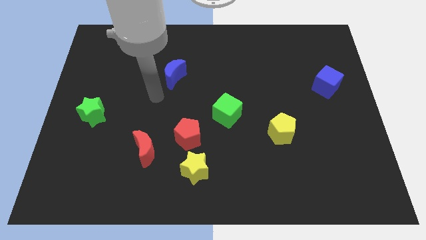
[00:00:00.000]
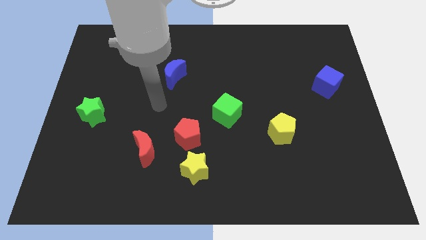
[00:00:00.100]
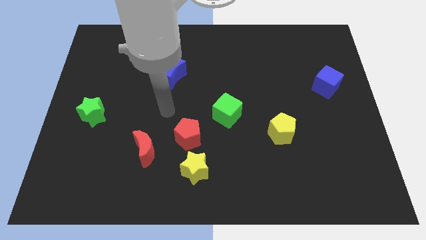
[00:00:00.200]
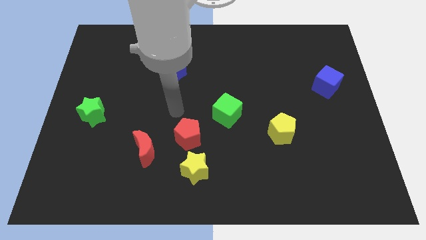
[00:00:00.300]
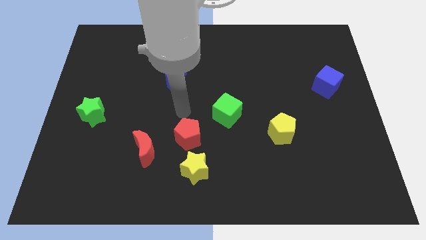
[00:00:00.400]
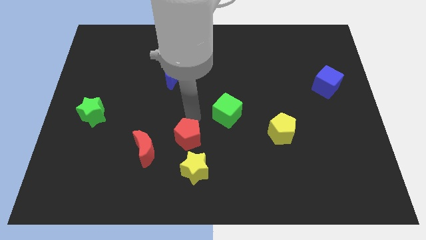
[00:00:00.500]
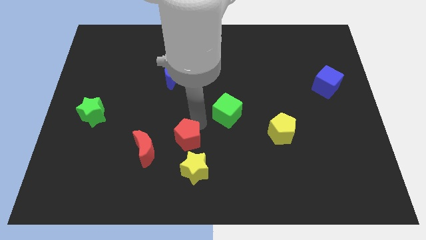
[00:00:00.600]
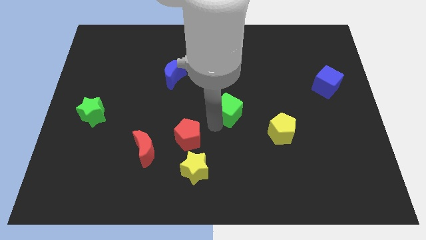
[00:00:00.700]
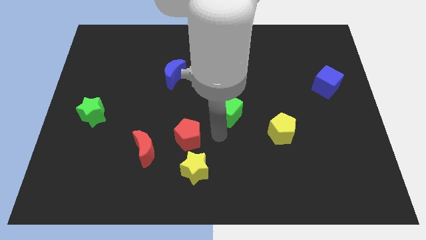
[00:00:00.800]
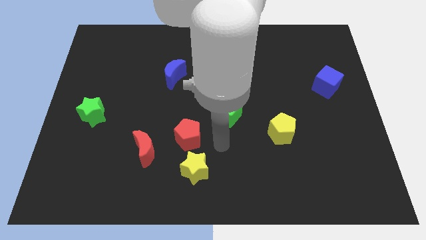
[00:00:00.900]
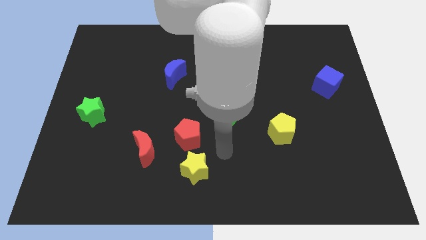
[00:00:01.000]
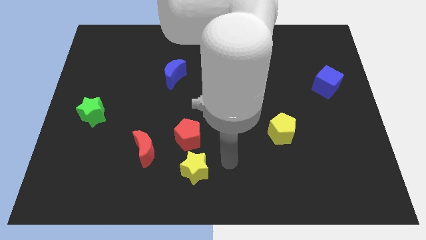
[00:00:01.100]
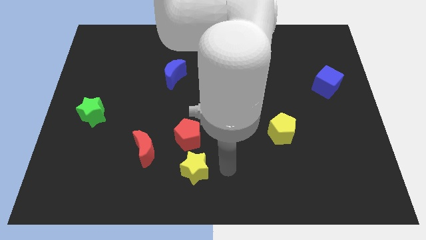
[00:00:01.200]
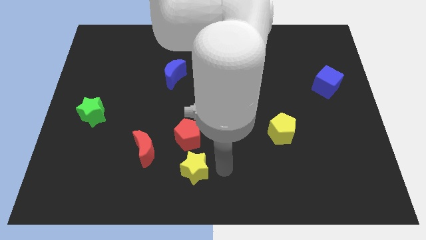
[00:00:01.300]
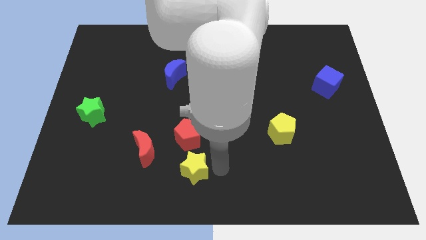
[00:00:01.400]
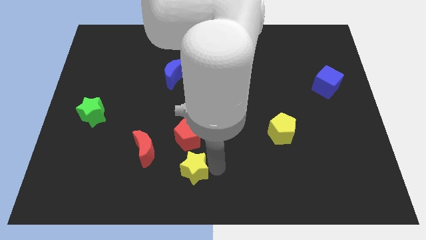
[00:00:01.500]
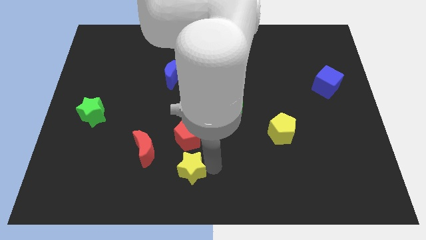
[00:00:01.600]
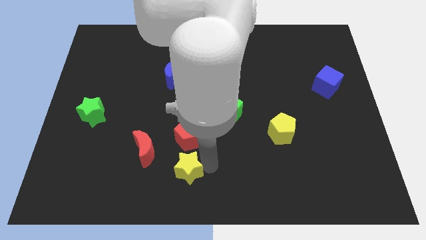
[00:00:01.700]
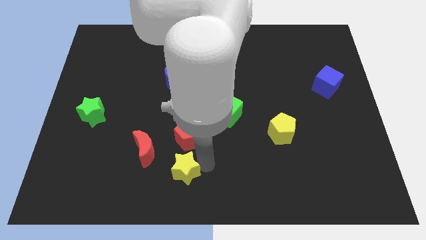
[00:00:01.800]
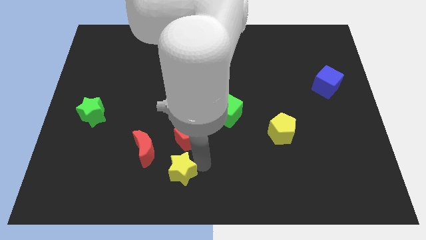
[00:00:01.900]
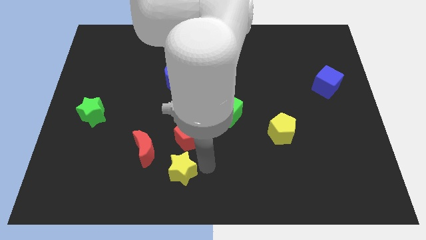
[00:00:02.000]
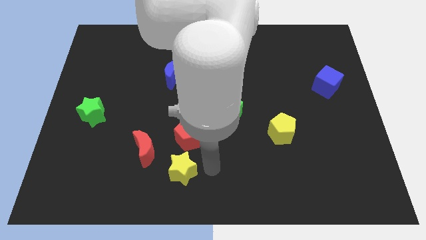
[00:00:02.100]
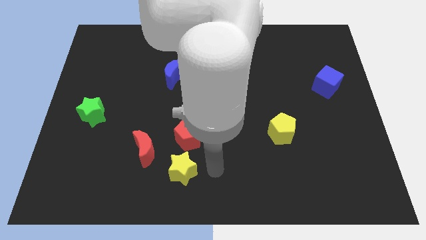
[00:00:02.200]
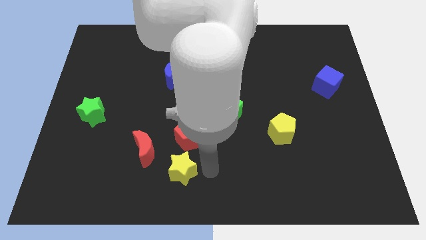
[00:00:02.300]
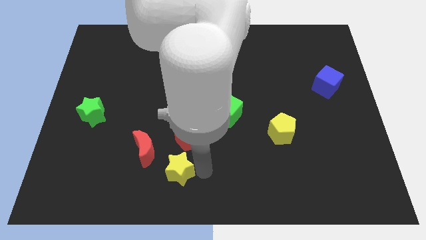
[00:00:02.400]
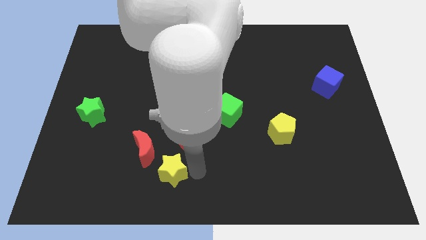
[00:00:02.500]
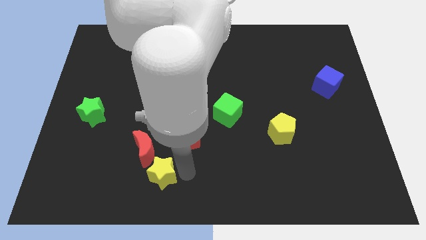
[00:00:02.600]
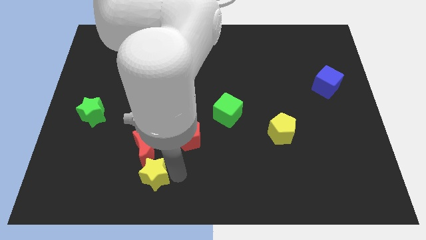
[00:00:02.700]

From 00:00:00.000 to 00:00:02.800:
push the yellow star to the left a little bit

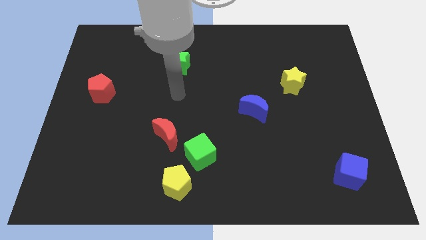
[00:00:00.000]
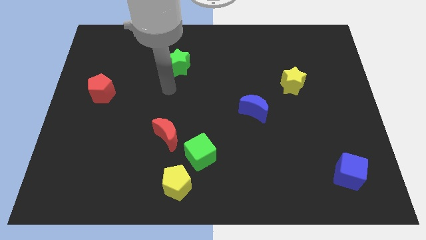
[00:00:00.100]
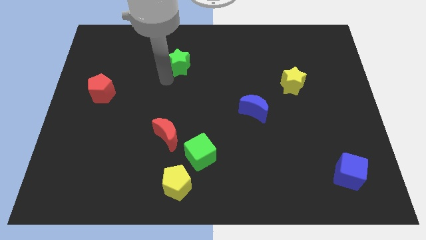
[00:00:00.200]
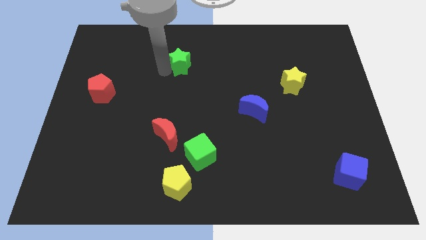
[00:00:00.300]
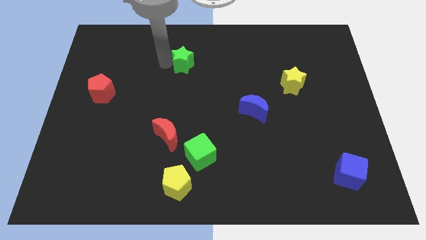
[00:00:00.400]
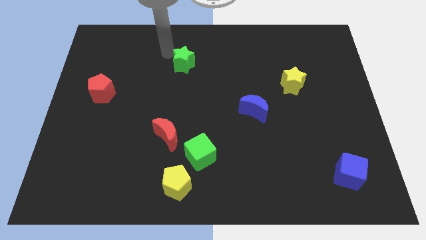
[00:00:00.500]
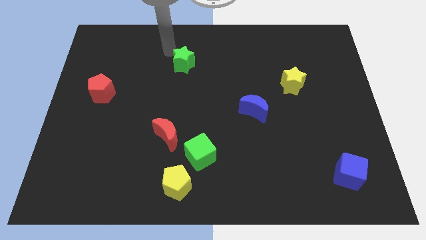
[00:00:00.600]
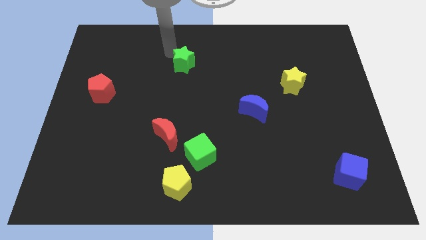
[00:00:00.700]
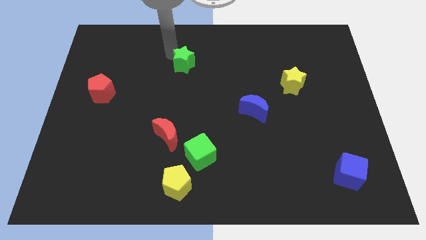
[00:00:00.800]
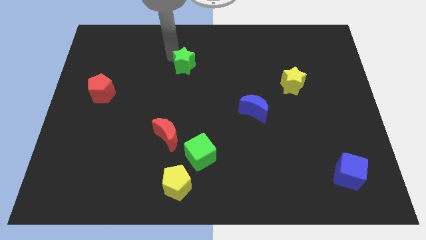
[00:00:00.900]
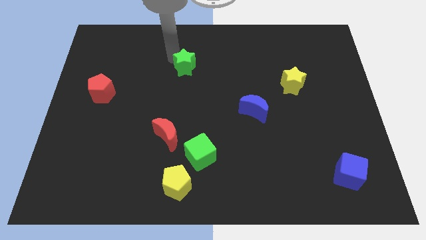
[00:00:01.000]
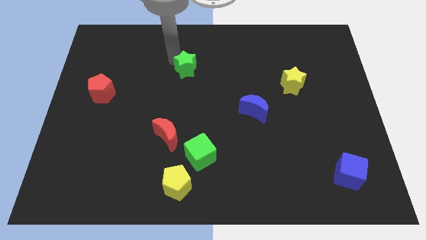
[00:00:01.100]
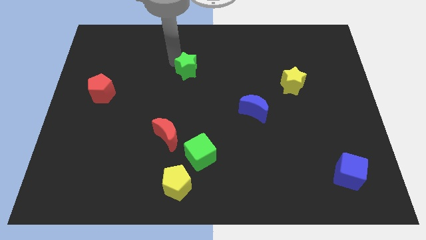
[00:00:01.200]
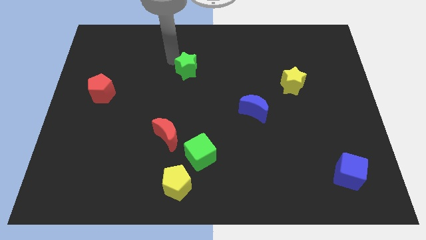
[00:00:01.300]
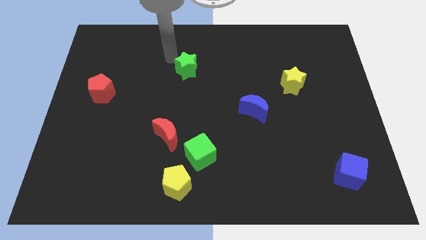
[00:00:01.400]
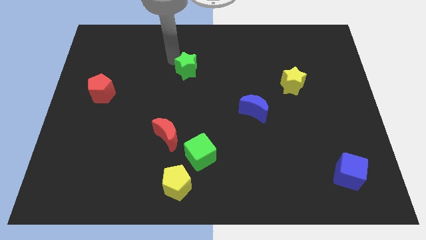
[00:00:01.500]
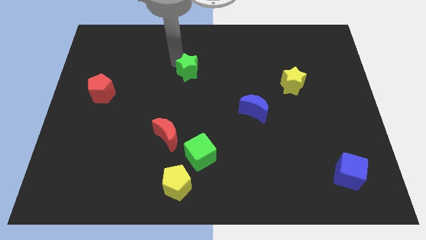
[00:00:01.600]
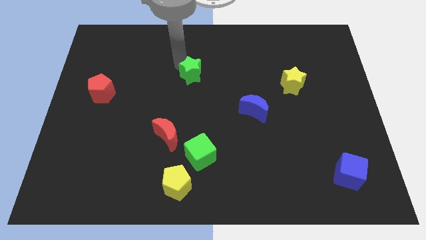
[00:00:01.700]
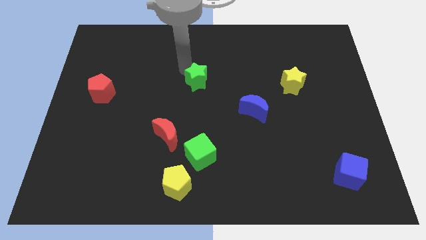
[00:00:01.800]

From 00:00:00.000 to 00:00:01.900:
slightly slide the green star diagonally down and right

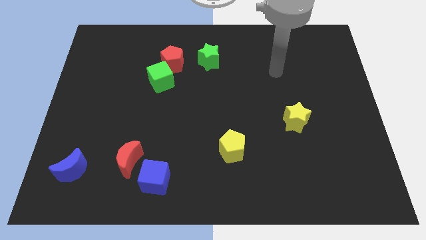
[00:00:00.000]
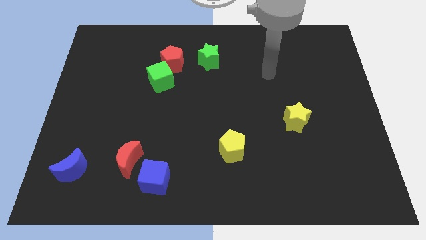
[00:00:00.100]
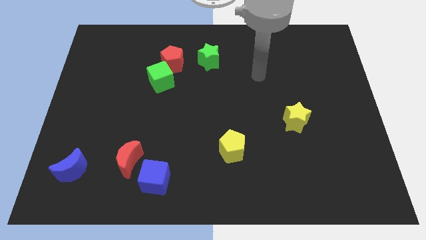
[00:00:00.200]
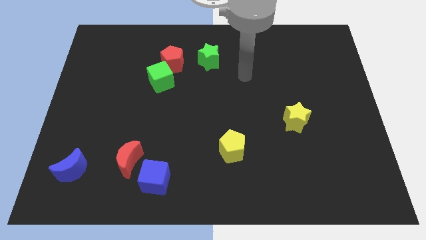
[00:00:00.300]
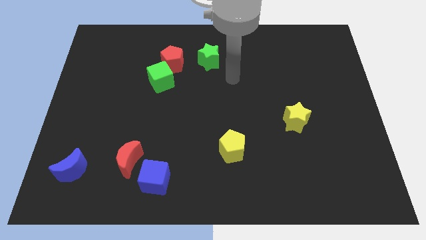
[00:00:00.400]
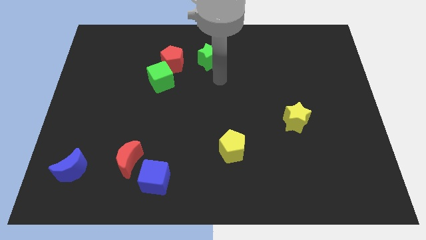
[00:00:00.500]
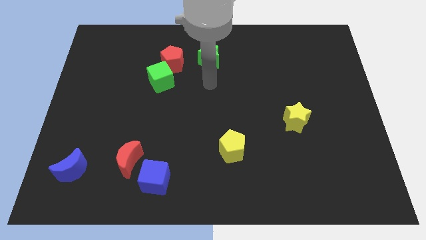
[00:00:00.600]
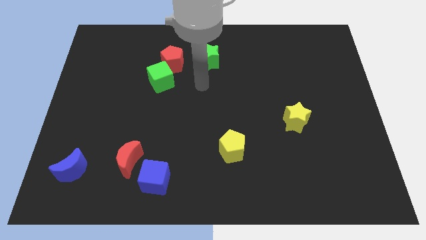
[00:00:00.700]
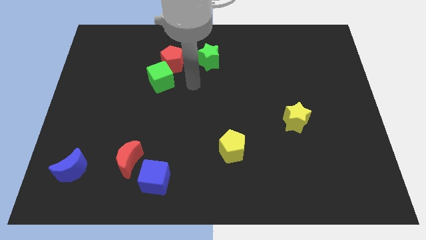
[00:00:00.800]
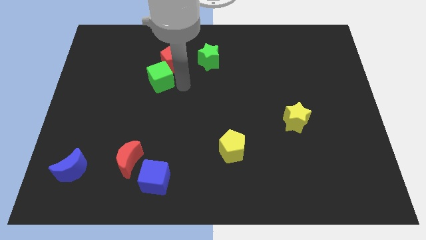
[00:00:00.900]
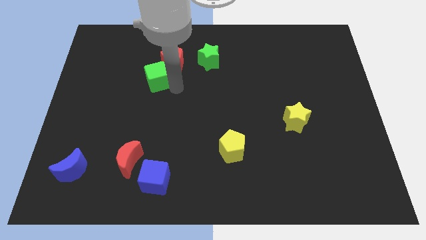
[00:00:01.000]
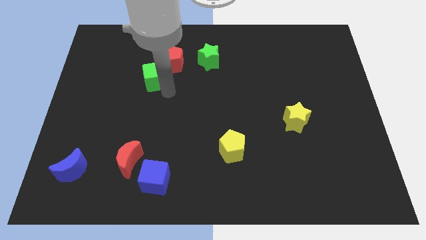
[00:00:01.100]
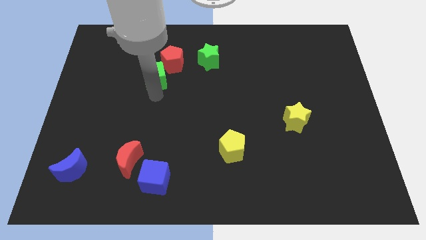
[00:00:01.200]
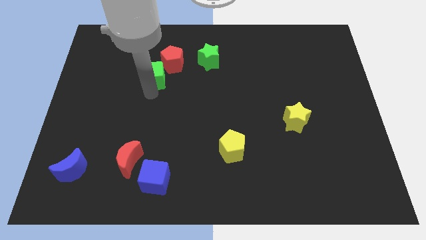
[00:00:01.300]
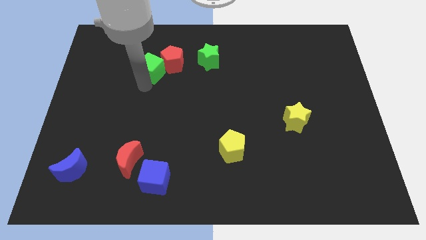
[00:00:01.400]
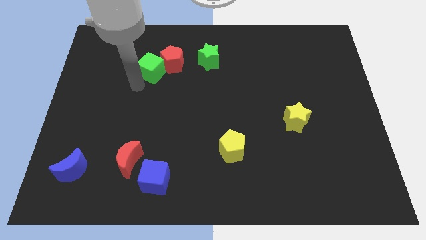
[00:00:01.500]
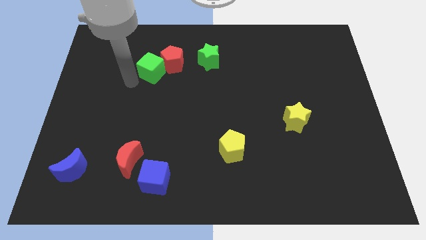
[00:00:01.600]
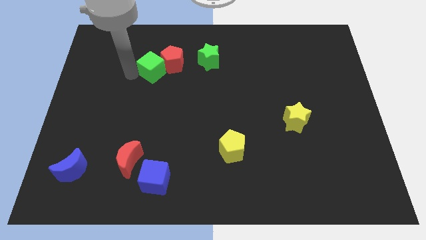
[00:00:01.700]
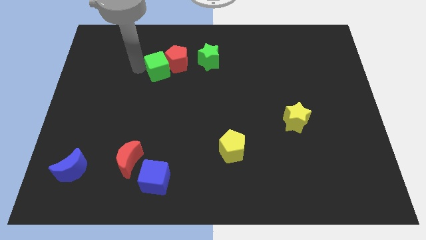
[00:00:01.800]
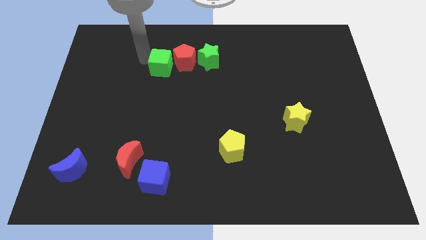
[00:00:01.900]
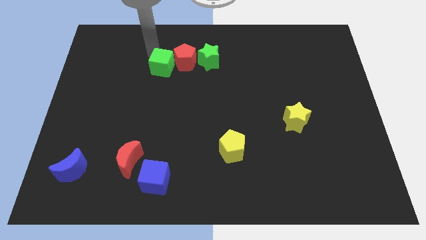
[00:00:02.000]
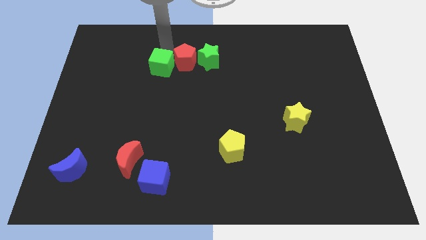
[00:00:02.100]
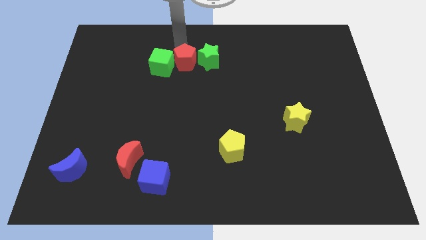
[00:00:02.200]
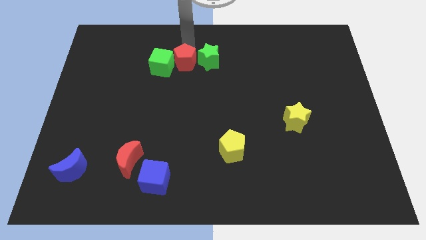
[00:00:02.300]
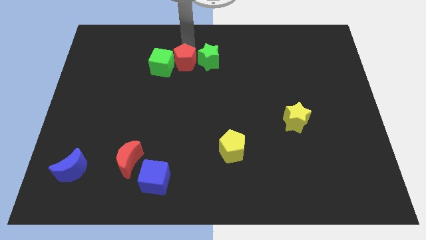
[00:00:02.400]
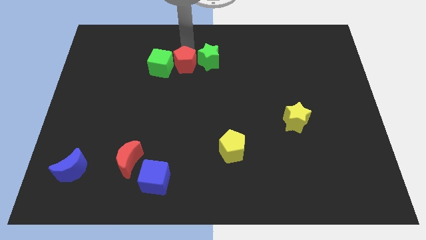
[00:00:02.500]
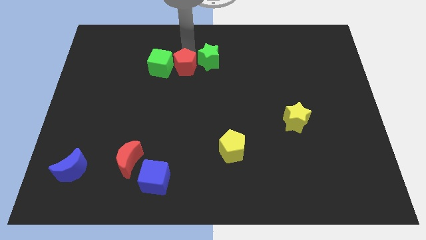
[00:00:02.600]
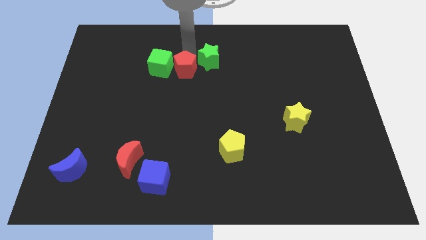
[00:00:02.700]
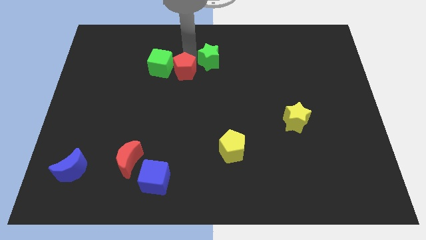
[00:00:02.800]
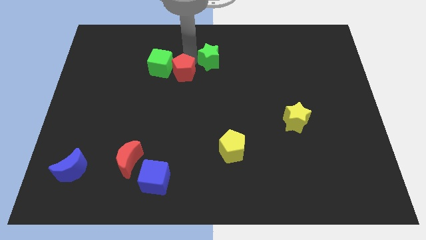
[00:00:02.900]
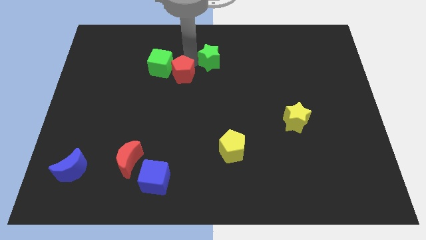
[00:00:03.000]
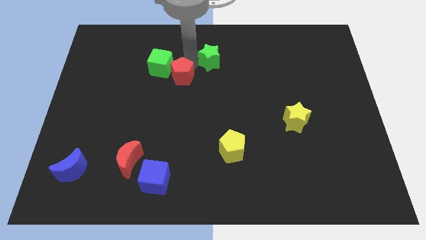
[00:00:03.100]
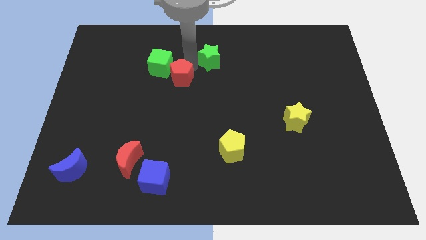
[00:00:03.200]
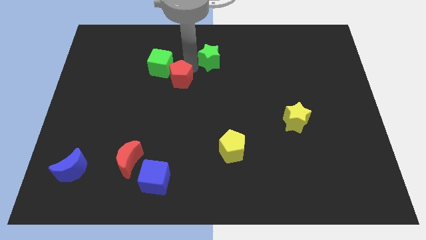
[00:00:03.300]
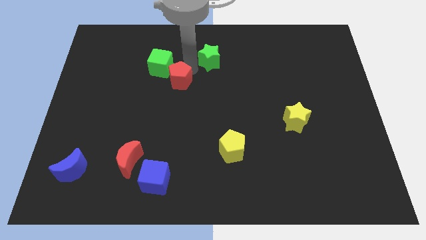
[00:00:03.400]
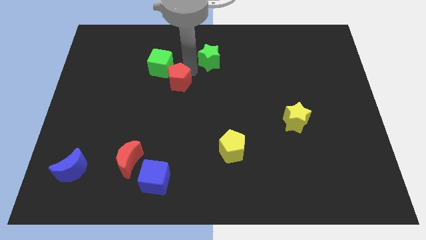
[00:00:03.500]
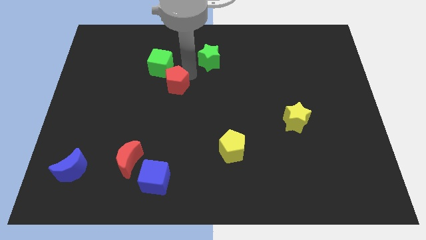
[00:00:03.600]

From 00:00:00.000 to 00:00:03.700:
slide the red pentagon a little bit down
